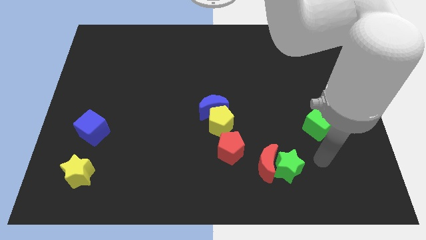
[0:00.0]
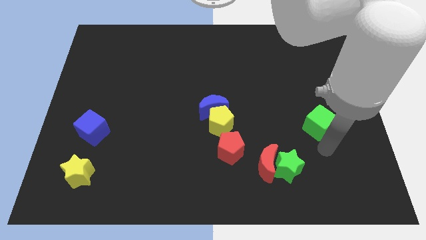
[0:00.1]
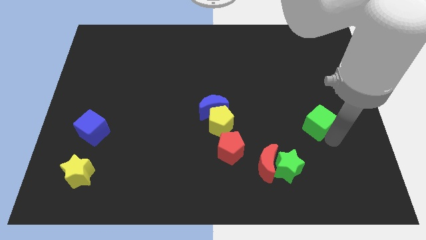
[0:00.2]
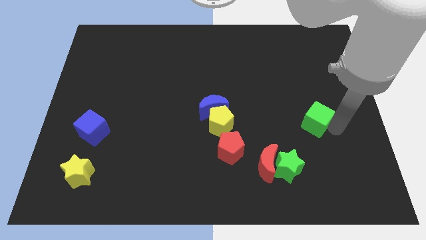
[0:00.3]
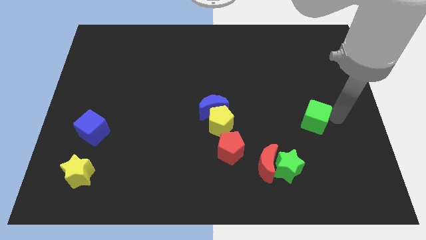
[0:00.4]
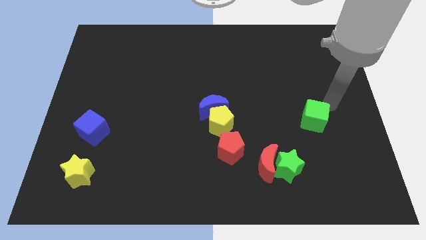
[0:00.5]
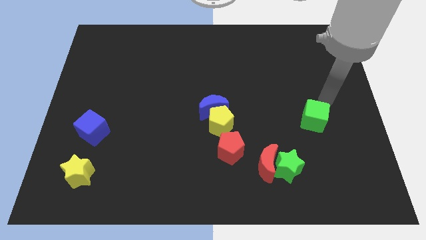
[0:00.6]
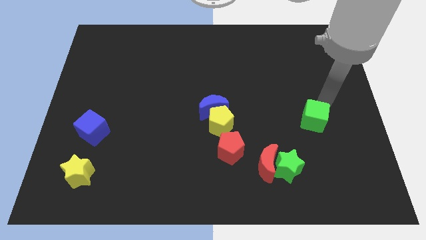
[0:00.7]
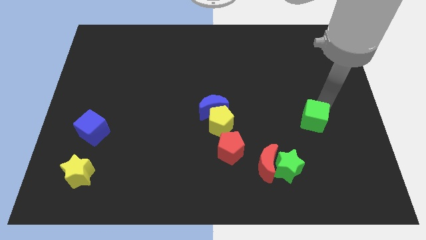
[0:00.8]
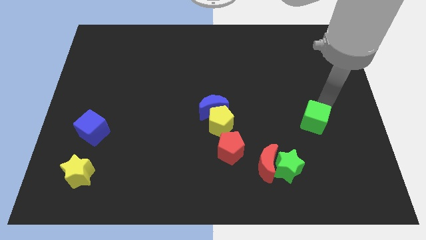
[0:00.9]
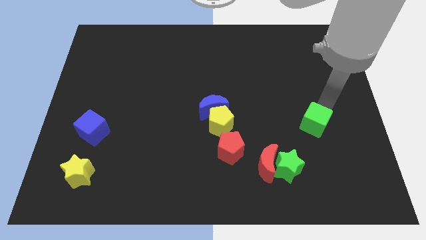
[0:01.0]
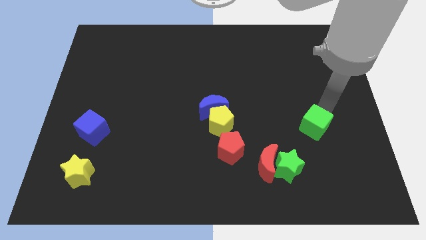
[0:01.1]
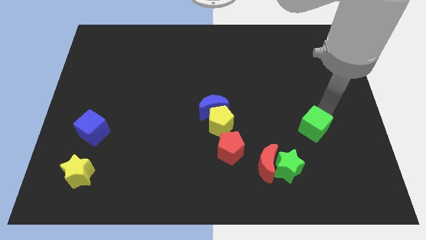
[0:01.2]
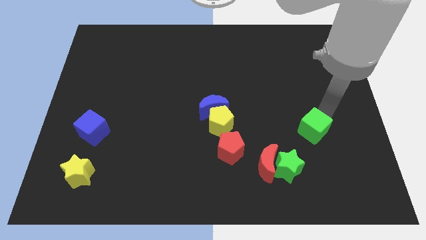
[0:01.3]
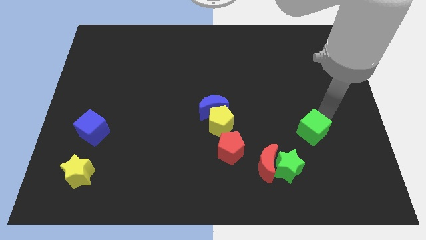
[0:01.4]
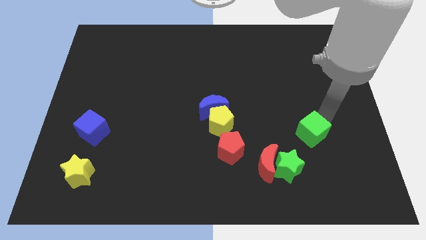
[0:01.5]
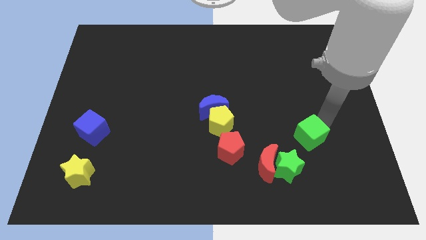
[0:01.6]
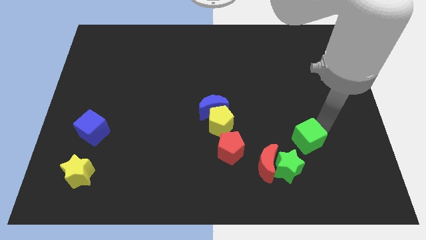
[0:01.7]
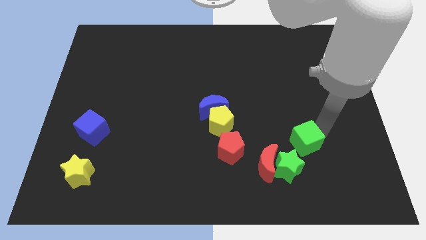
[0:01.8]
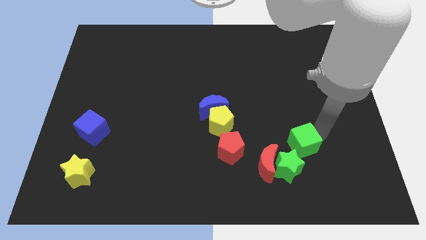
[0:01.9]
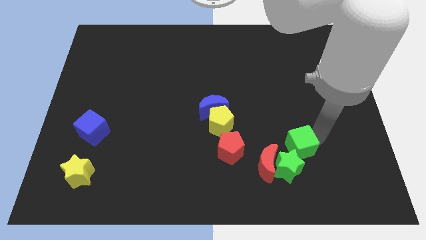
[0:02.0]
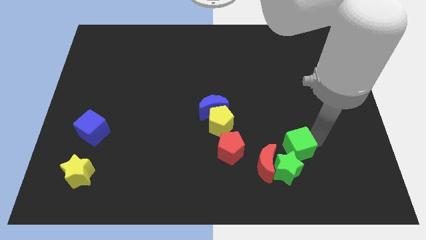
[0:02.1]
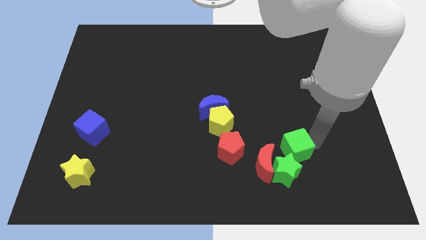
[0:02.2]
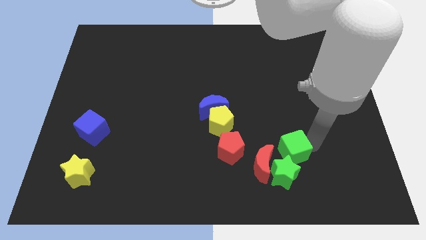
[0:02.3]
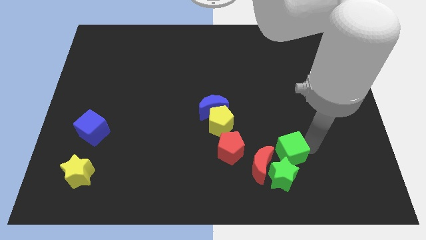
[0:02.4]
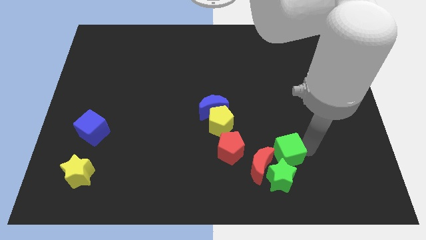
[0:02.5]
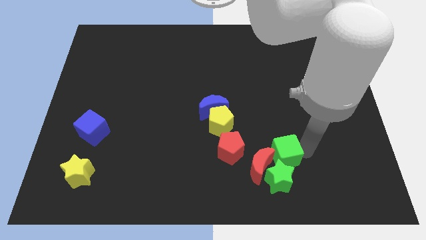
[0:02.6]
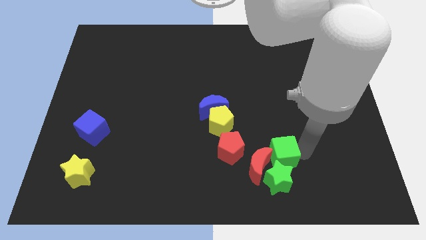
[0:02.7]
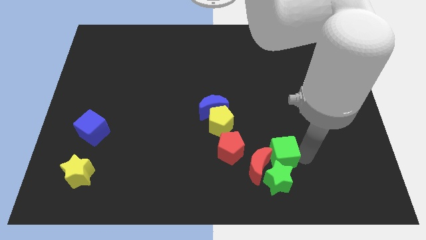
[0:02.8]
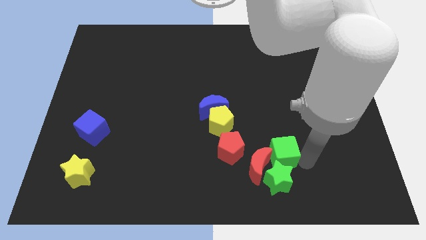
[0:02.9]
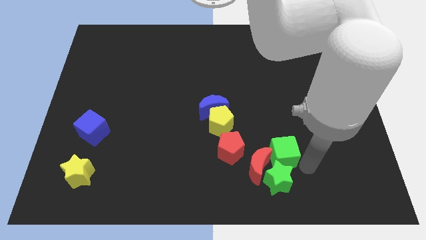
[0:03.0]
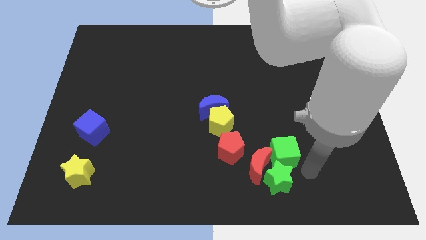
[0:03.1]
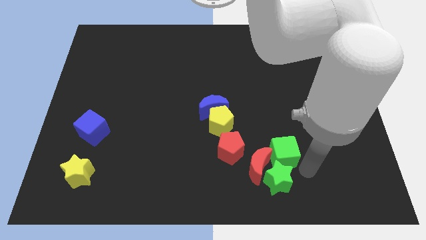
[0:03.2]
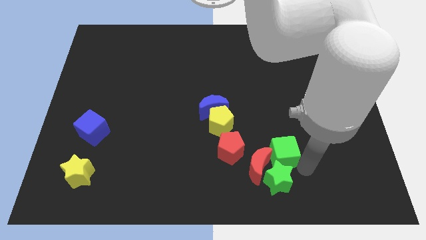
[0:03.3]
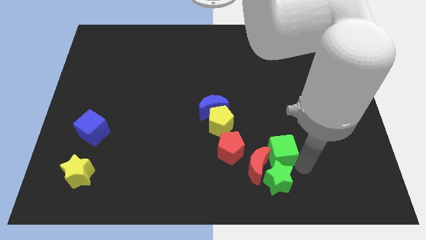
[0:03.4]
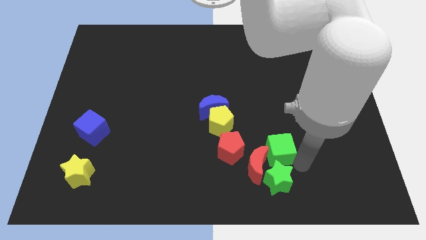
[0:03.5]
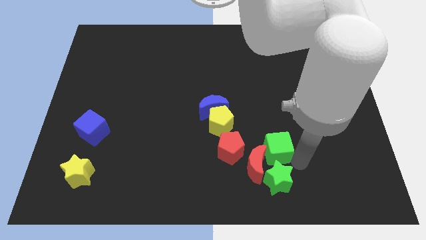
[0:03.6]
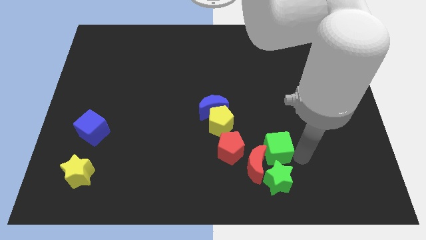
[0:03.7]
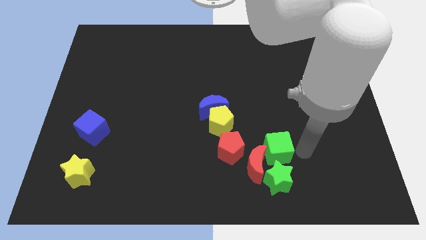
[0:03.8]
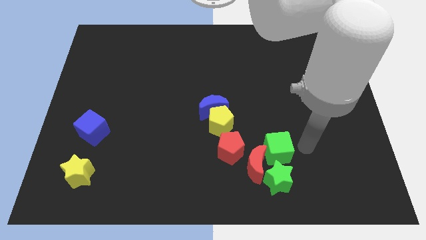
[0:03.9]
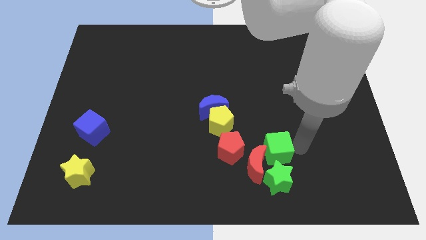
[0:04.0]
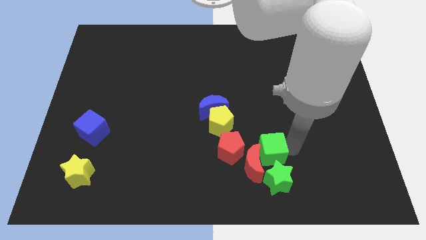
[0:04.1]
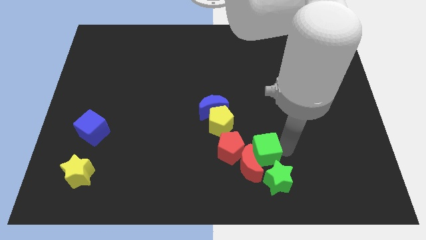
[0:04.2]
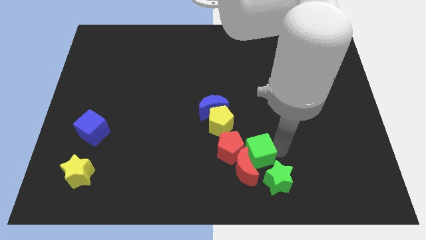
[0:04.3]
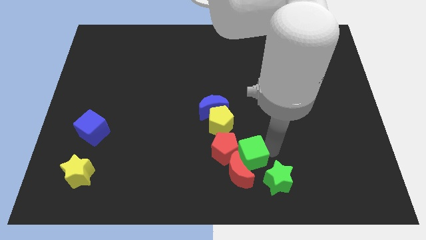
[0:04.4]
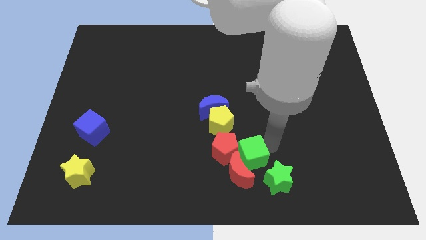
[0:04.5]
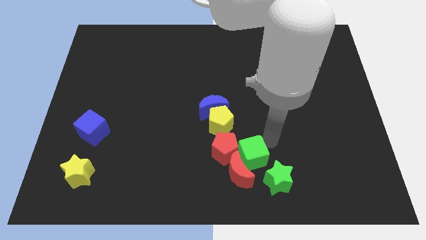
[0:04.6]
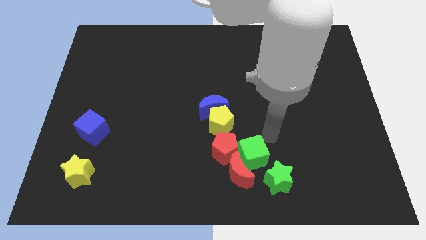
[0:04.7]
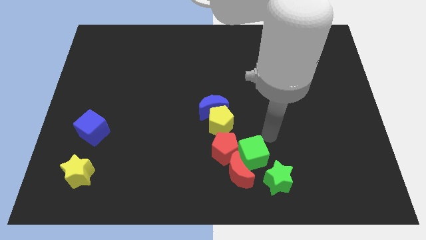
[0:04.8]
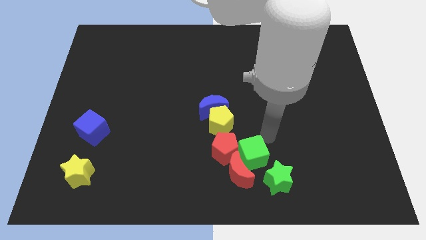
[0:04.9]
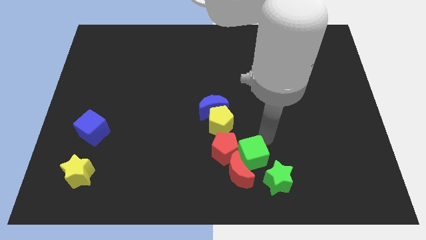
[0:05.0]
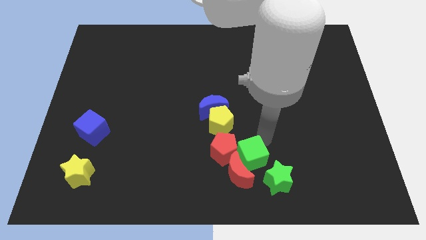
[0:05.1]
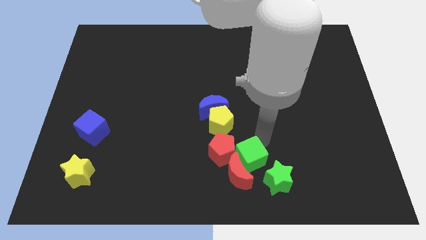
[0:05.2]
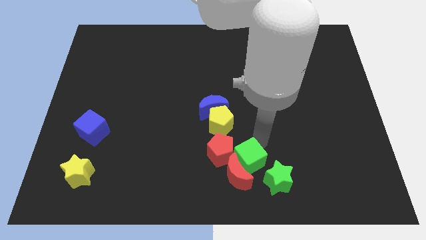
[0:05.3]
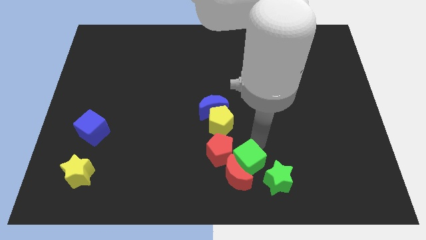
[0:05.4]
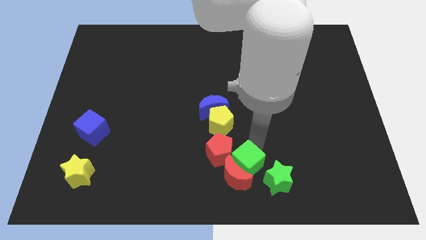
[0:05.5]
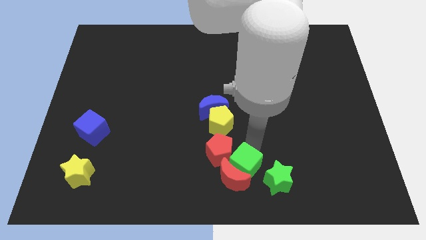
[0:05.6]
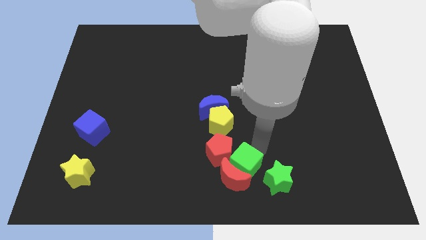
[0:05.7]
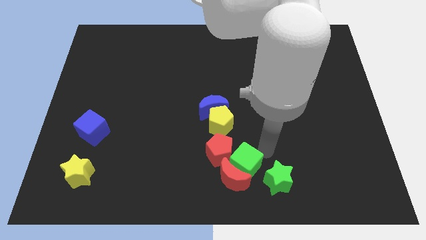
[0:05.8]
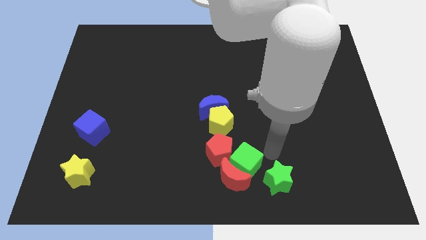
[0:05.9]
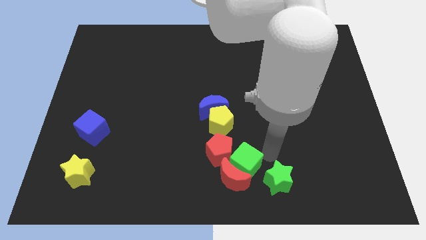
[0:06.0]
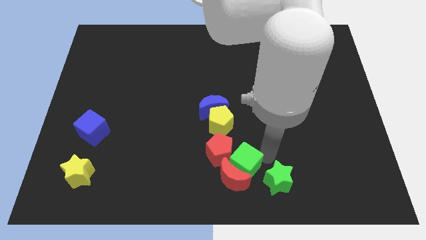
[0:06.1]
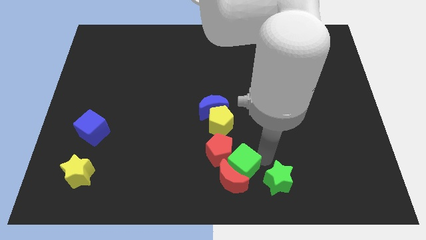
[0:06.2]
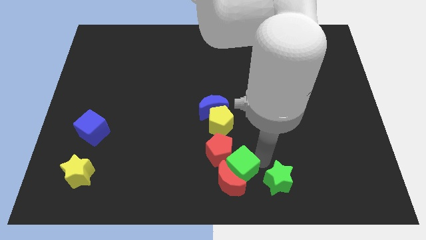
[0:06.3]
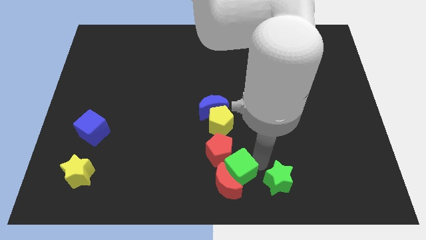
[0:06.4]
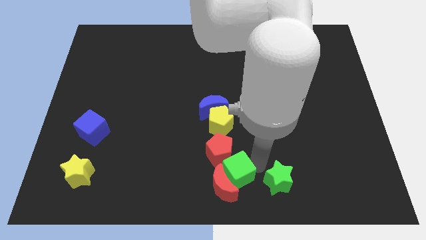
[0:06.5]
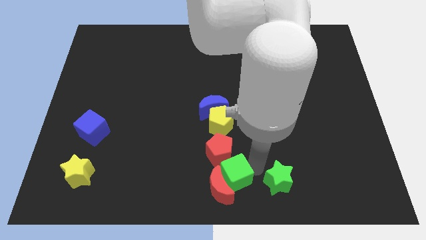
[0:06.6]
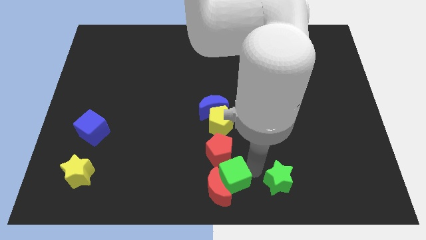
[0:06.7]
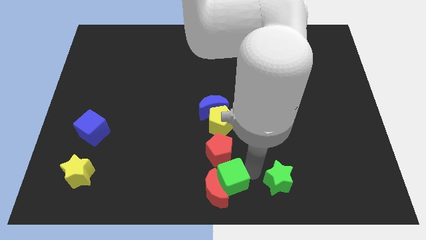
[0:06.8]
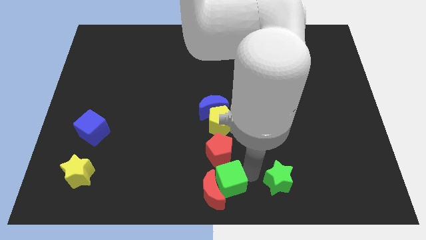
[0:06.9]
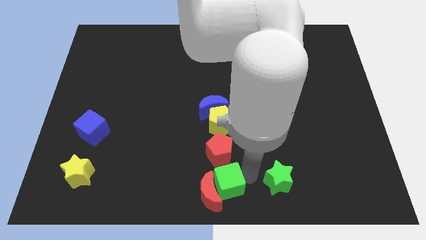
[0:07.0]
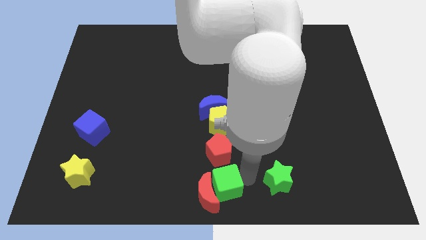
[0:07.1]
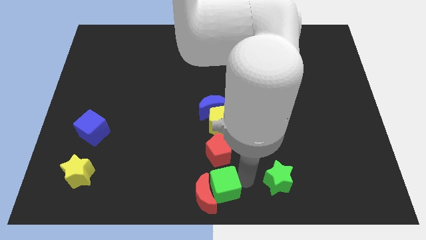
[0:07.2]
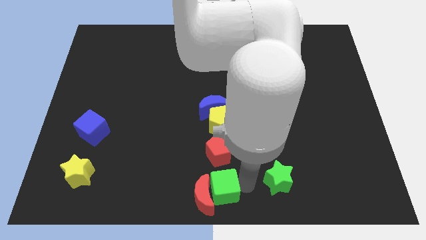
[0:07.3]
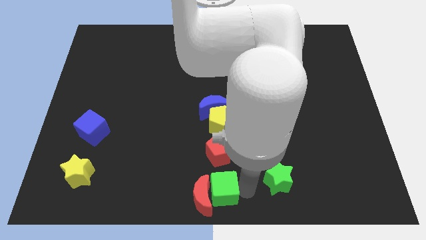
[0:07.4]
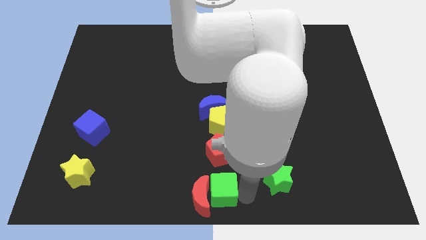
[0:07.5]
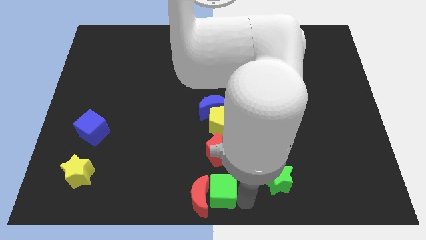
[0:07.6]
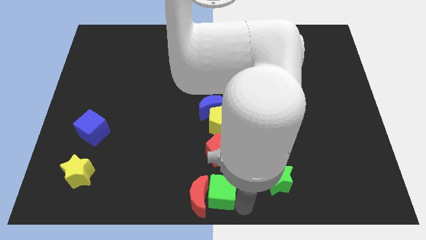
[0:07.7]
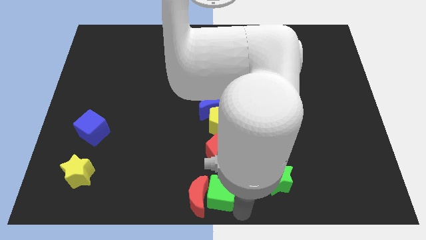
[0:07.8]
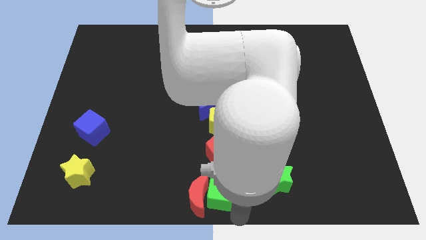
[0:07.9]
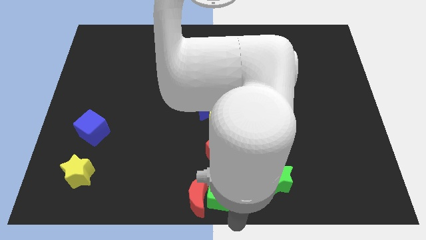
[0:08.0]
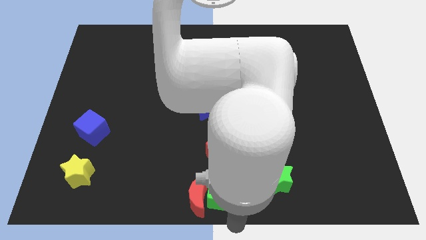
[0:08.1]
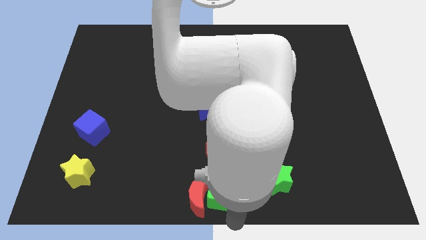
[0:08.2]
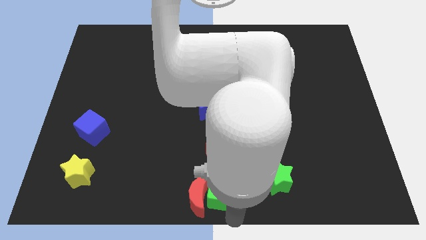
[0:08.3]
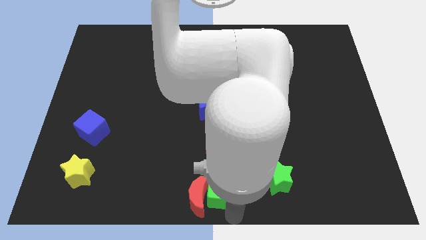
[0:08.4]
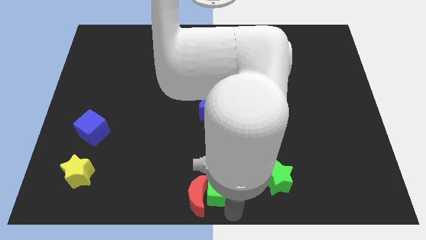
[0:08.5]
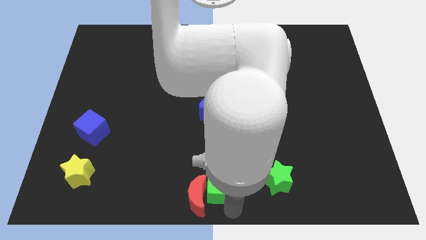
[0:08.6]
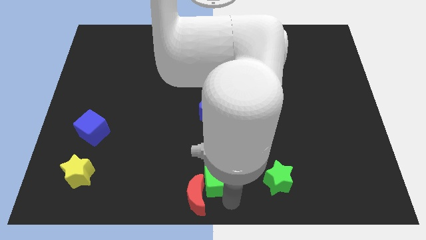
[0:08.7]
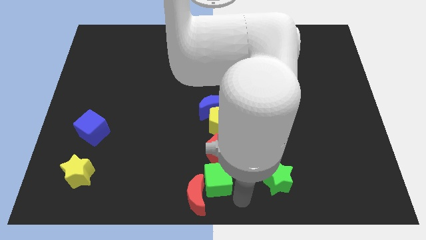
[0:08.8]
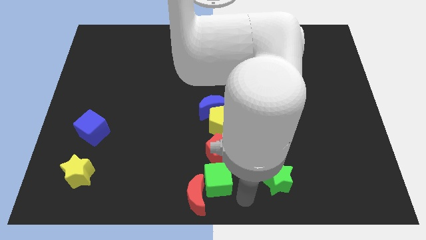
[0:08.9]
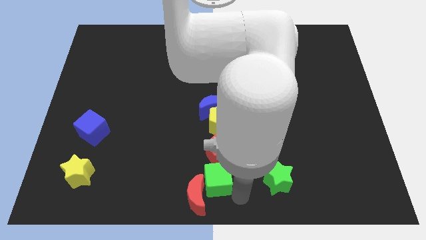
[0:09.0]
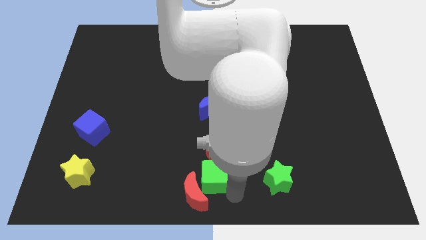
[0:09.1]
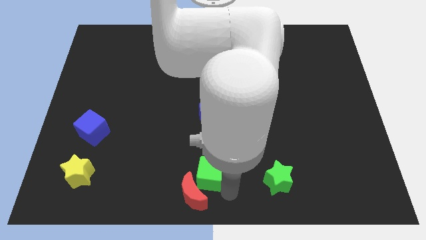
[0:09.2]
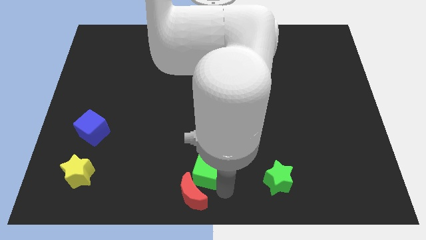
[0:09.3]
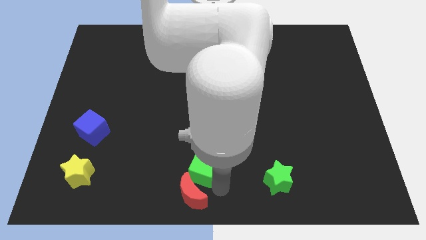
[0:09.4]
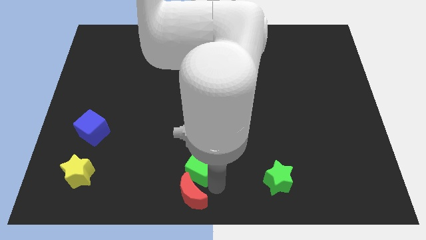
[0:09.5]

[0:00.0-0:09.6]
push the green cube just left of the red pentagon
